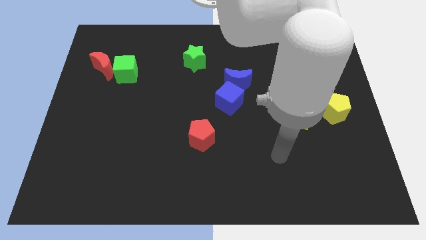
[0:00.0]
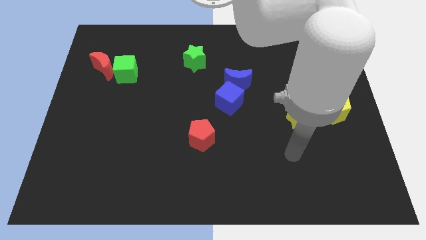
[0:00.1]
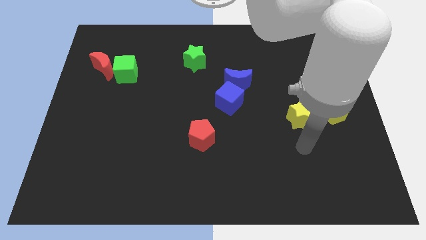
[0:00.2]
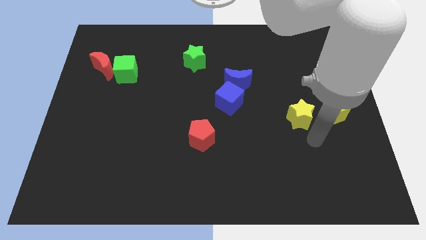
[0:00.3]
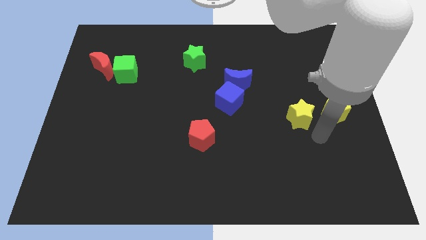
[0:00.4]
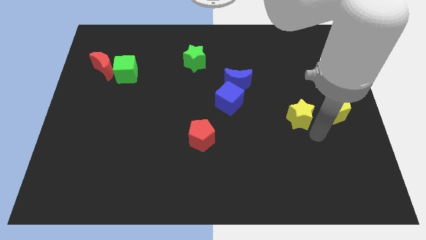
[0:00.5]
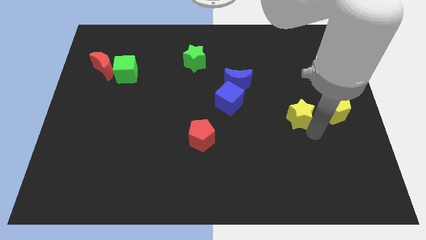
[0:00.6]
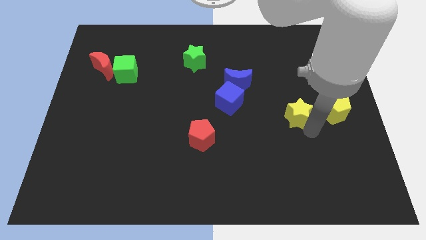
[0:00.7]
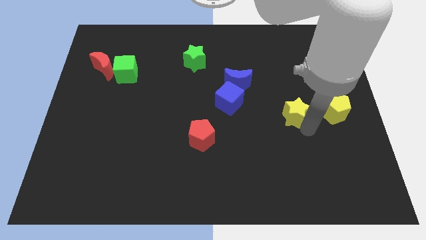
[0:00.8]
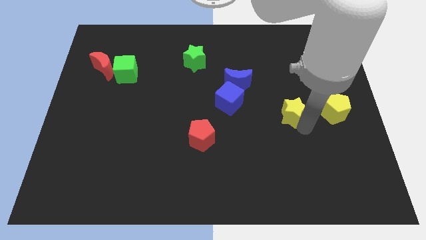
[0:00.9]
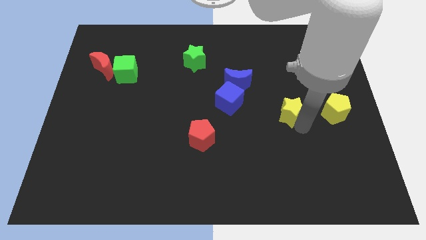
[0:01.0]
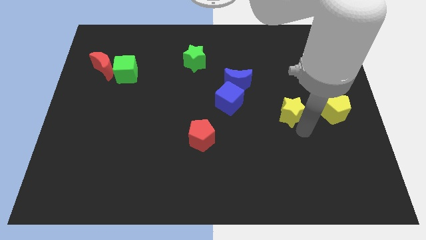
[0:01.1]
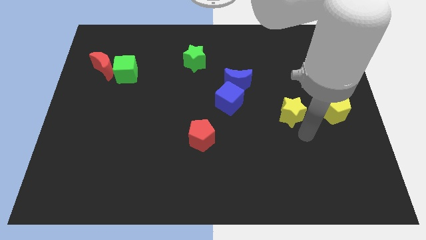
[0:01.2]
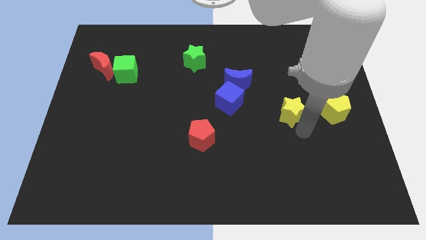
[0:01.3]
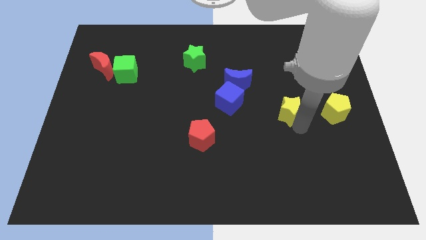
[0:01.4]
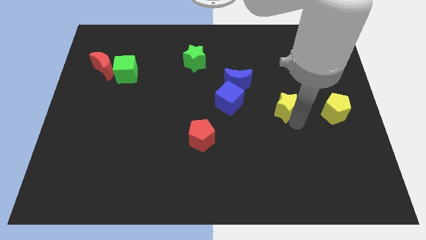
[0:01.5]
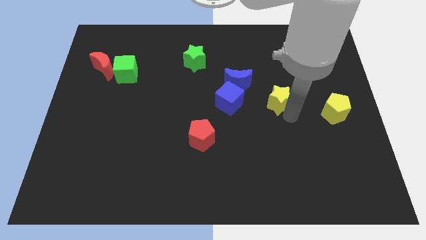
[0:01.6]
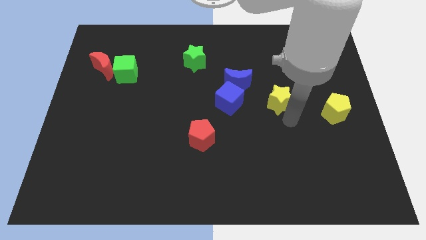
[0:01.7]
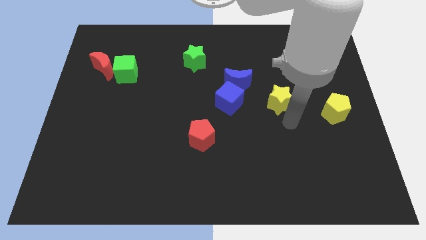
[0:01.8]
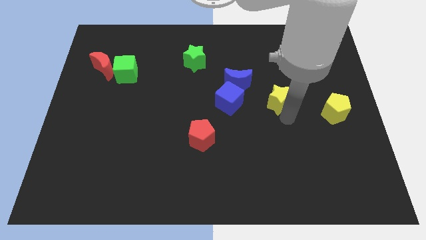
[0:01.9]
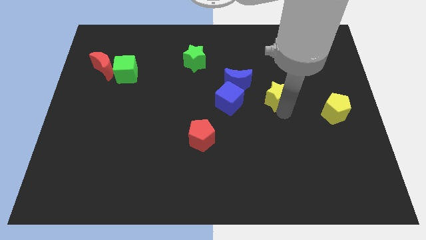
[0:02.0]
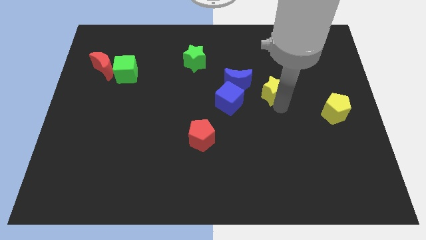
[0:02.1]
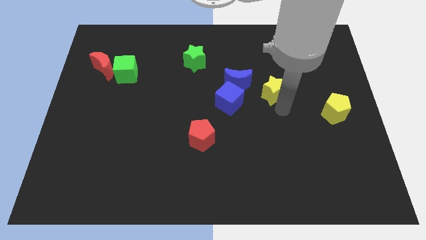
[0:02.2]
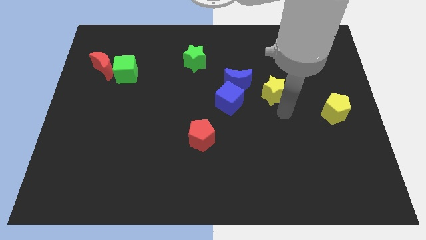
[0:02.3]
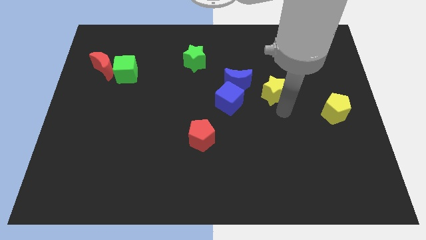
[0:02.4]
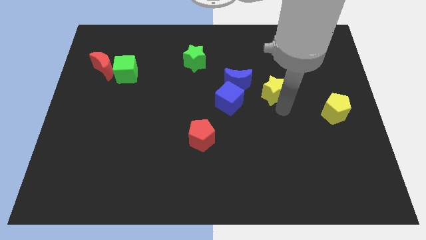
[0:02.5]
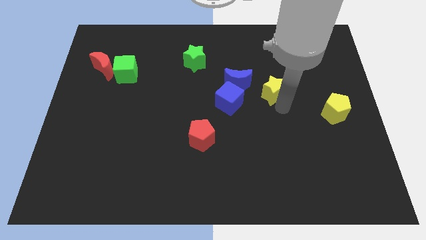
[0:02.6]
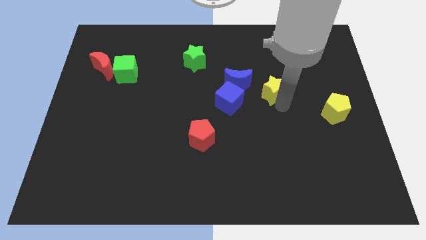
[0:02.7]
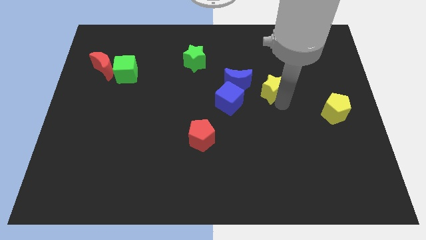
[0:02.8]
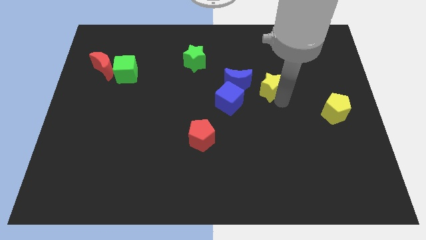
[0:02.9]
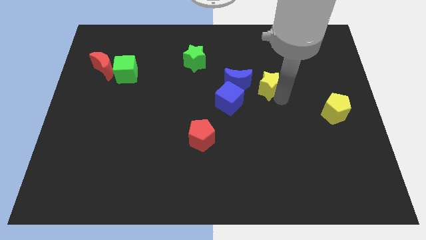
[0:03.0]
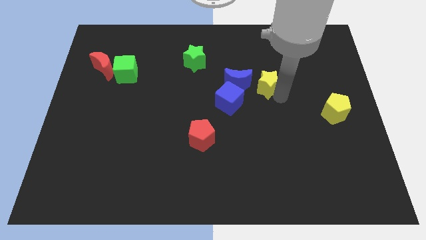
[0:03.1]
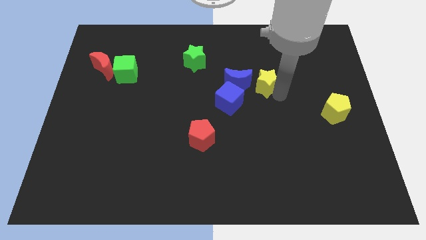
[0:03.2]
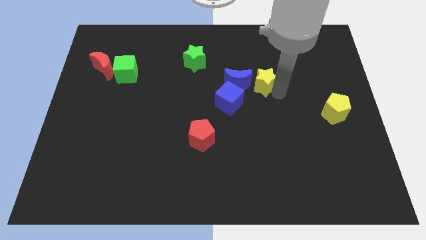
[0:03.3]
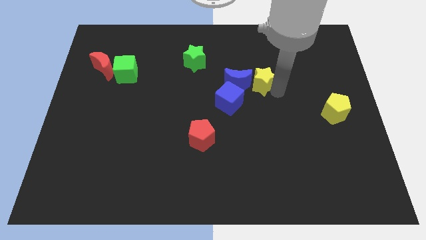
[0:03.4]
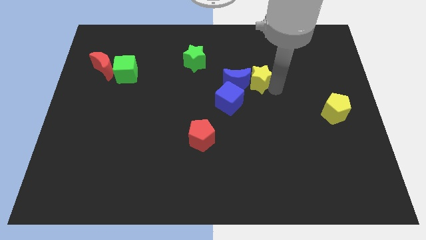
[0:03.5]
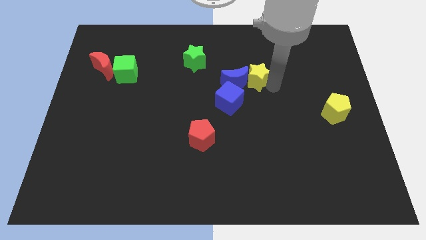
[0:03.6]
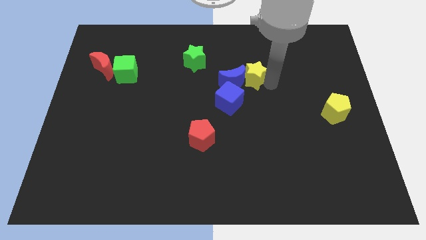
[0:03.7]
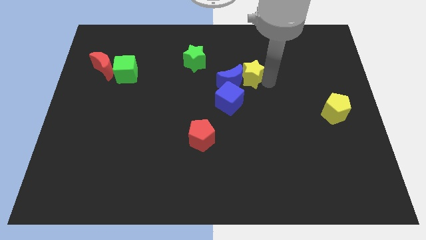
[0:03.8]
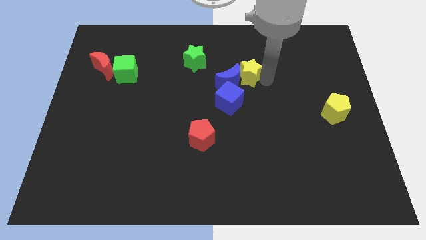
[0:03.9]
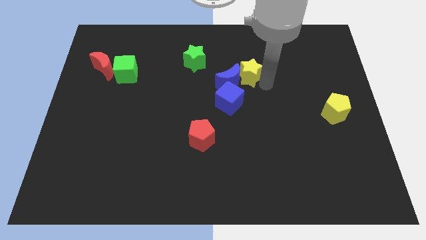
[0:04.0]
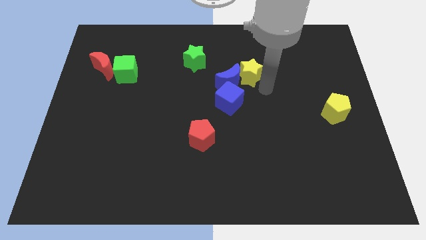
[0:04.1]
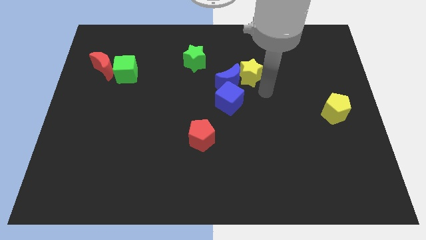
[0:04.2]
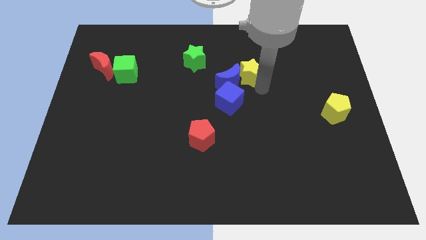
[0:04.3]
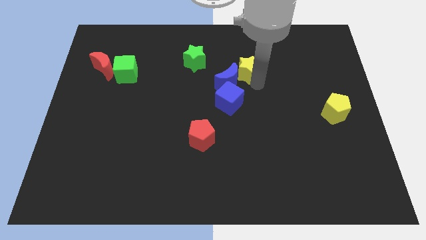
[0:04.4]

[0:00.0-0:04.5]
move the yellow star just right of the green star

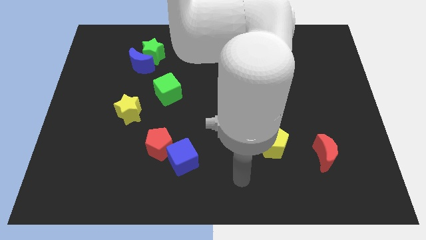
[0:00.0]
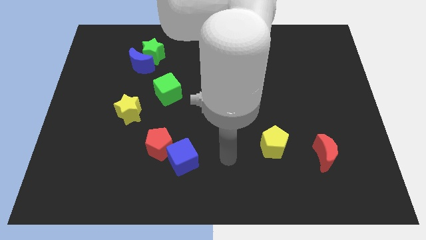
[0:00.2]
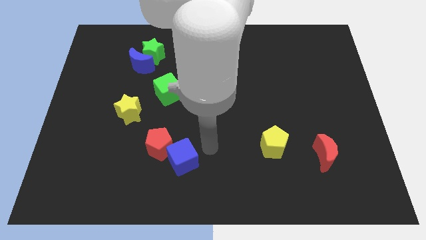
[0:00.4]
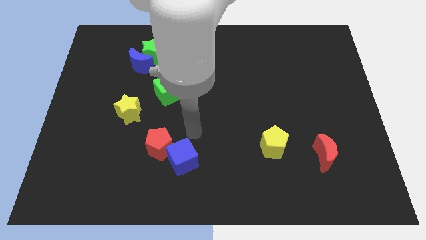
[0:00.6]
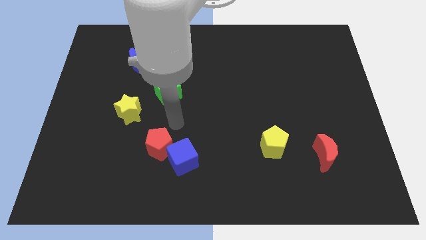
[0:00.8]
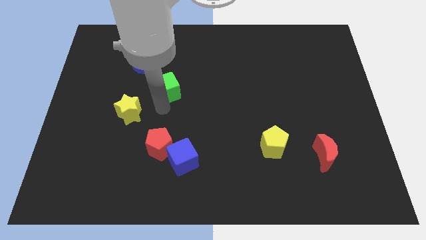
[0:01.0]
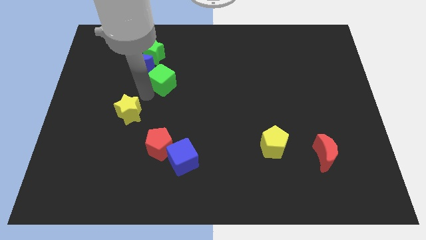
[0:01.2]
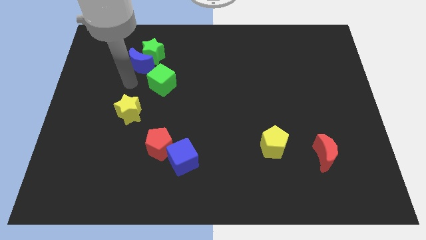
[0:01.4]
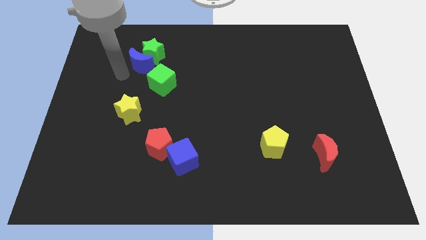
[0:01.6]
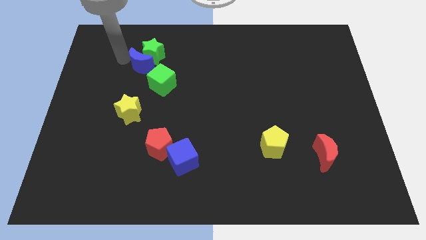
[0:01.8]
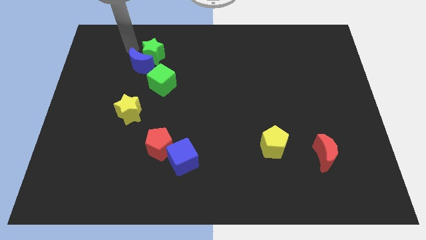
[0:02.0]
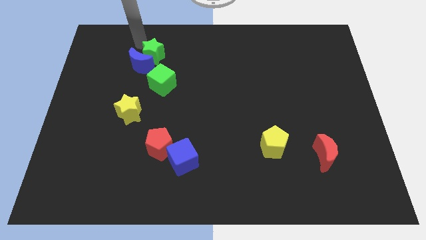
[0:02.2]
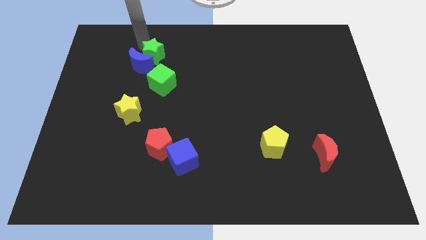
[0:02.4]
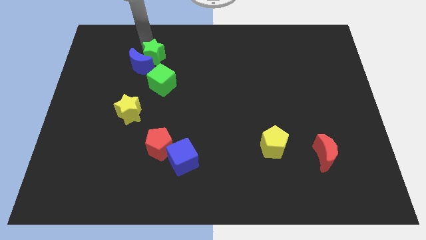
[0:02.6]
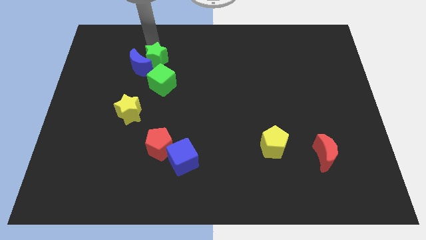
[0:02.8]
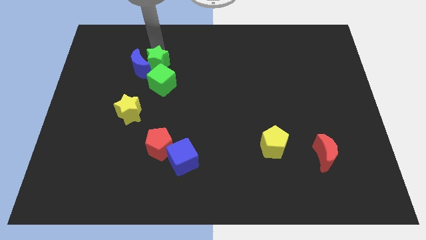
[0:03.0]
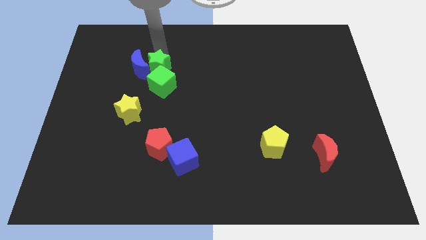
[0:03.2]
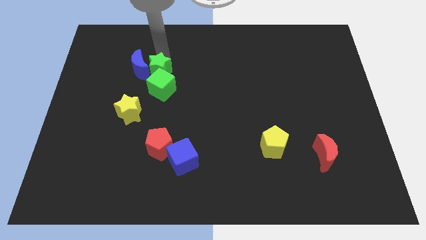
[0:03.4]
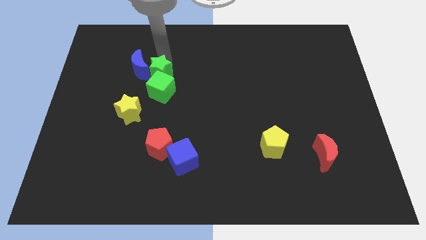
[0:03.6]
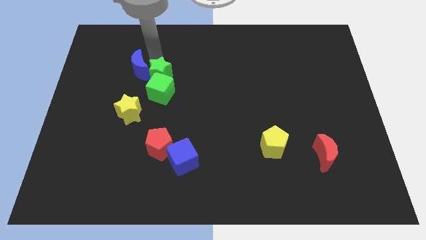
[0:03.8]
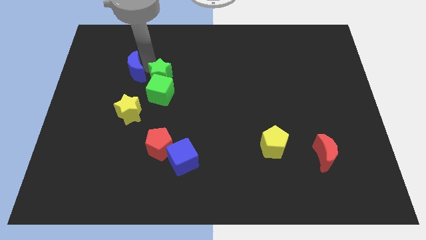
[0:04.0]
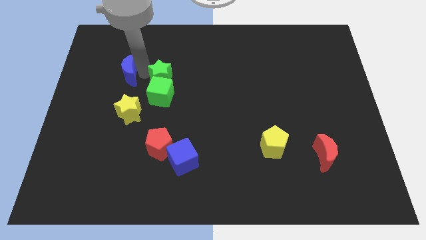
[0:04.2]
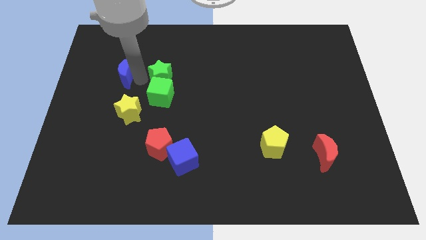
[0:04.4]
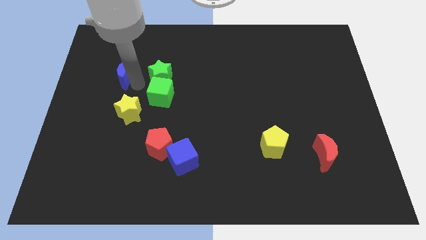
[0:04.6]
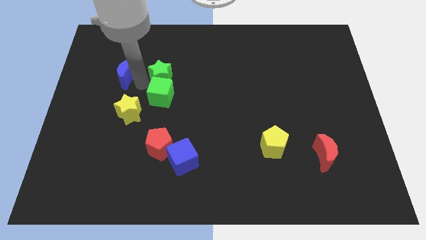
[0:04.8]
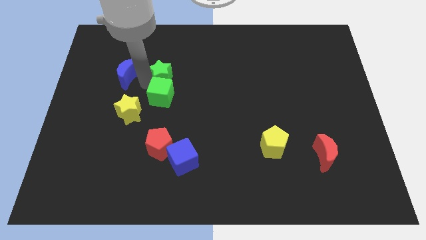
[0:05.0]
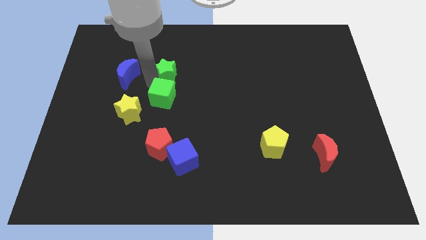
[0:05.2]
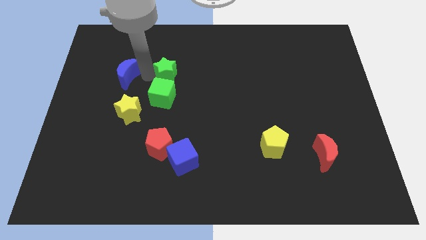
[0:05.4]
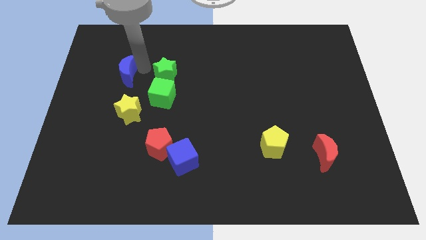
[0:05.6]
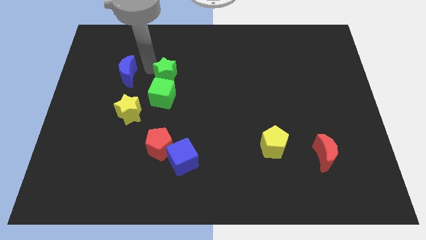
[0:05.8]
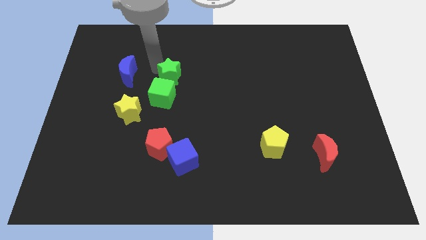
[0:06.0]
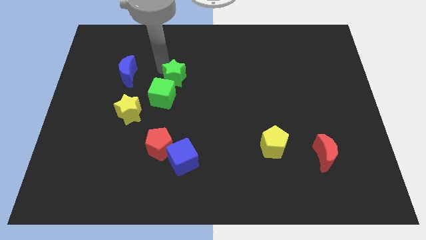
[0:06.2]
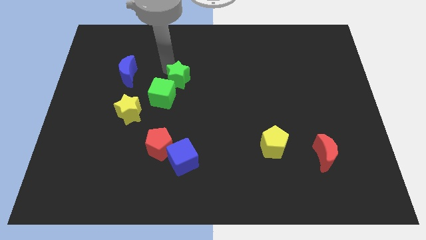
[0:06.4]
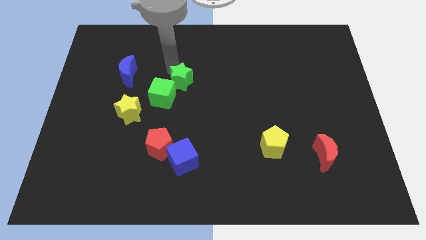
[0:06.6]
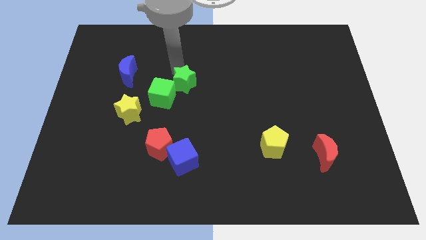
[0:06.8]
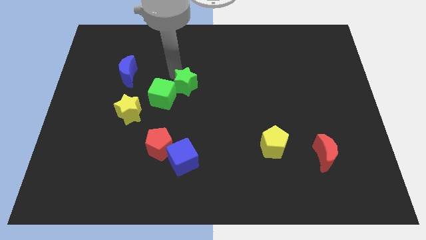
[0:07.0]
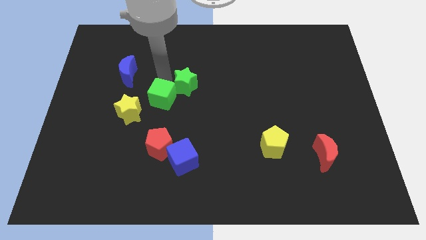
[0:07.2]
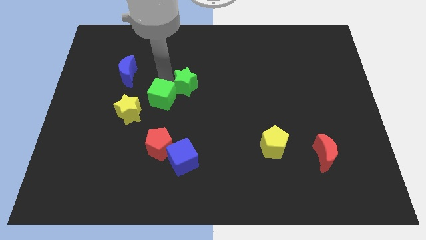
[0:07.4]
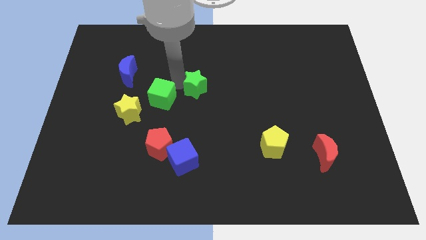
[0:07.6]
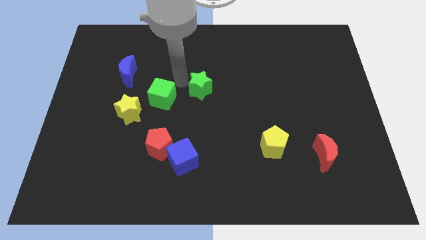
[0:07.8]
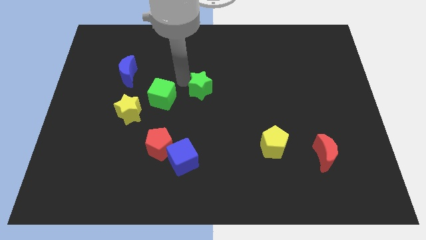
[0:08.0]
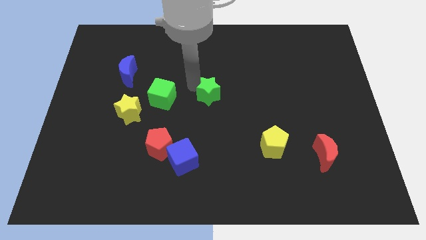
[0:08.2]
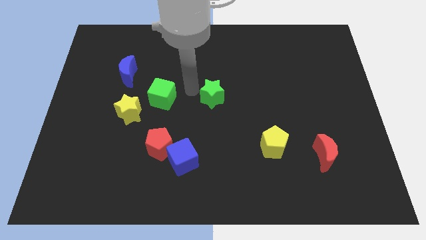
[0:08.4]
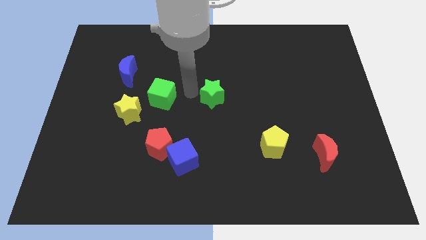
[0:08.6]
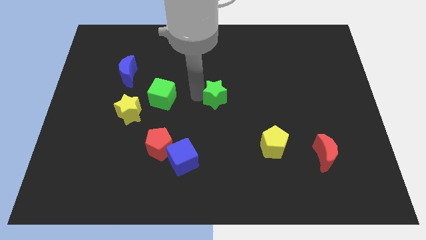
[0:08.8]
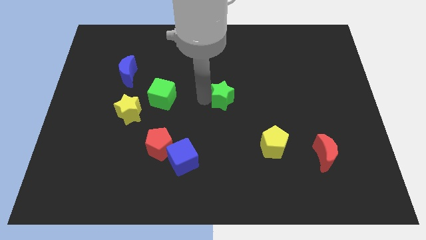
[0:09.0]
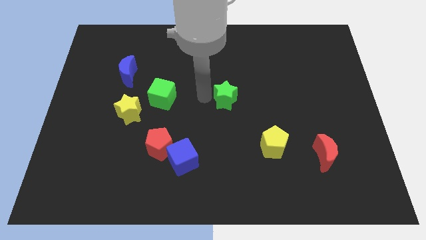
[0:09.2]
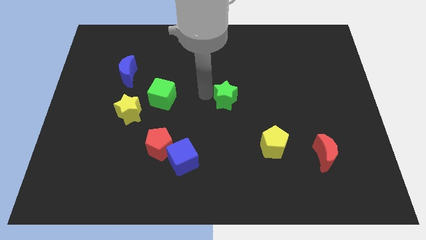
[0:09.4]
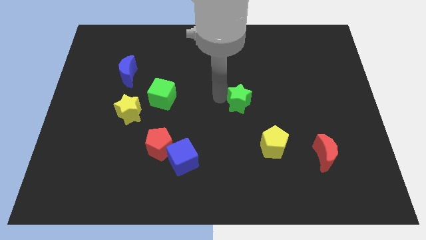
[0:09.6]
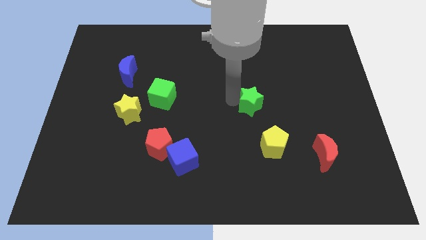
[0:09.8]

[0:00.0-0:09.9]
move the green star to the top side of the yellow pentagon
